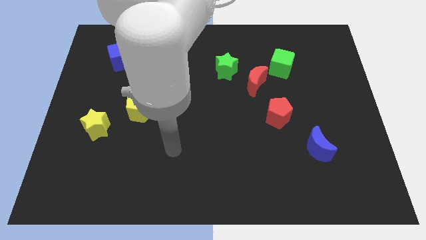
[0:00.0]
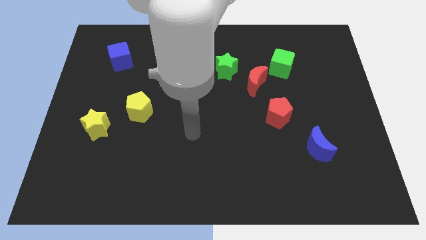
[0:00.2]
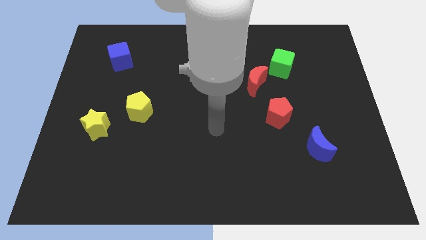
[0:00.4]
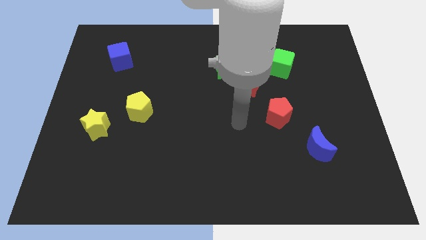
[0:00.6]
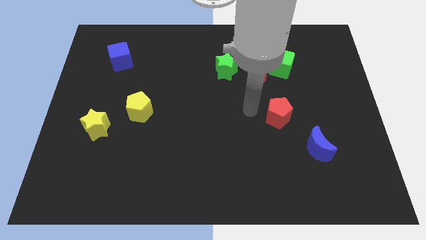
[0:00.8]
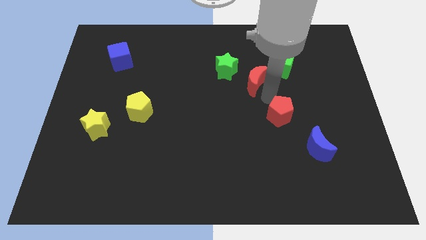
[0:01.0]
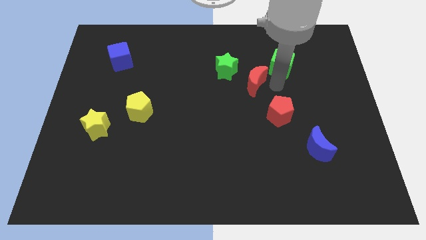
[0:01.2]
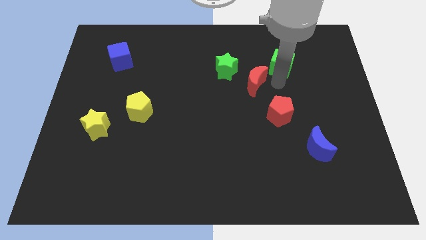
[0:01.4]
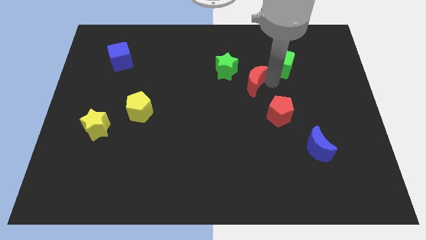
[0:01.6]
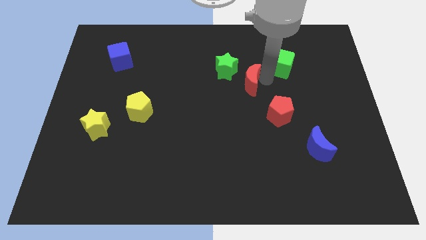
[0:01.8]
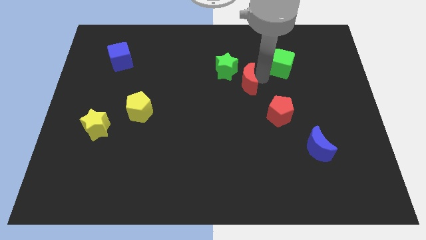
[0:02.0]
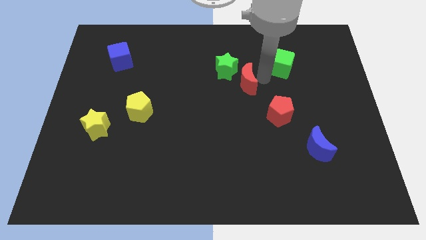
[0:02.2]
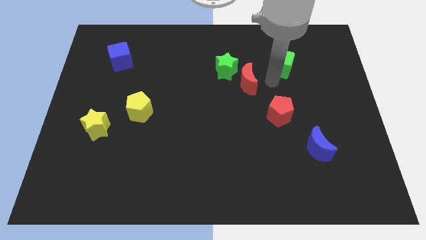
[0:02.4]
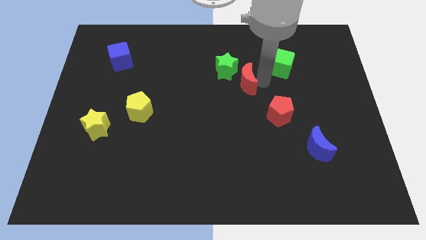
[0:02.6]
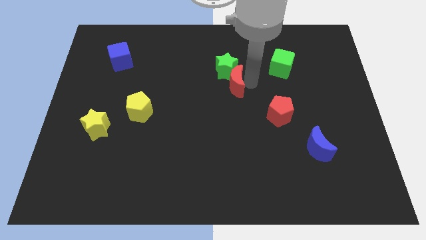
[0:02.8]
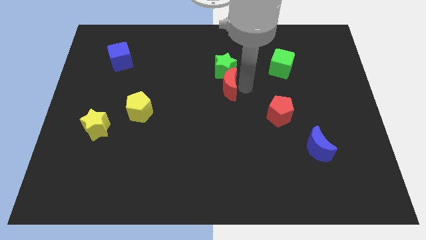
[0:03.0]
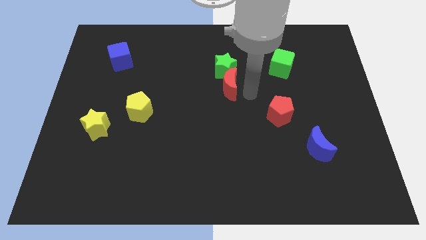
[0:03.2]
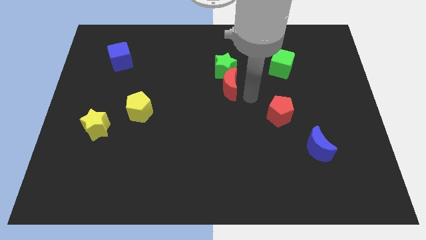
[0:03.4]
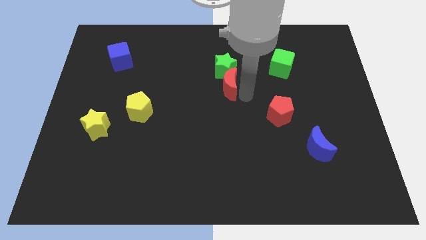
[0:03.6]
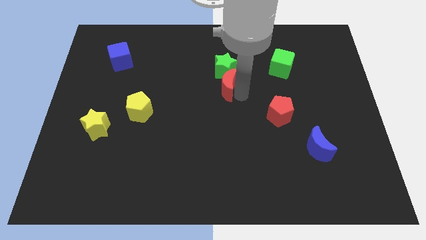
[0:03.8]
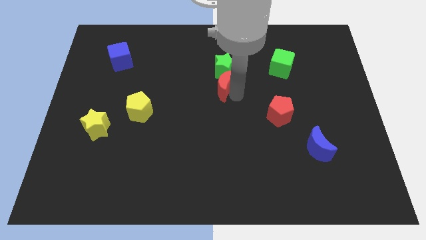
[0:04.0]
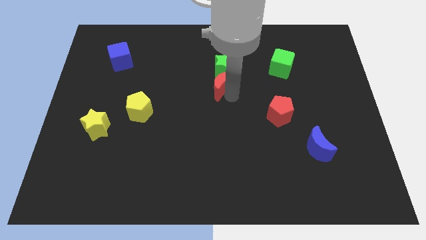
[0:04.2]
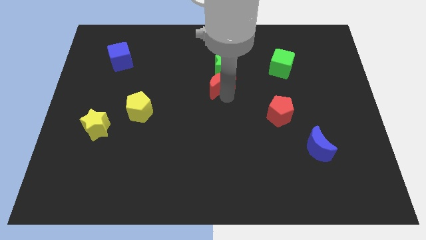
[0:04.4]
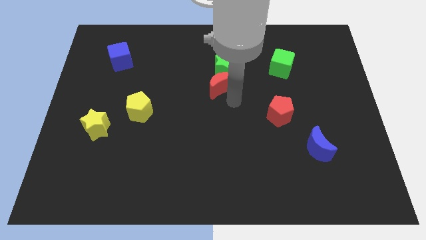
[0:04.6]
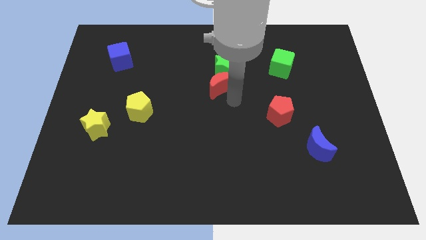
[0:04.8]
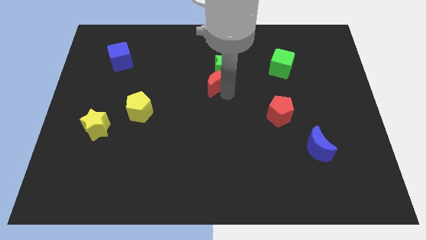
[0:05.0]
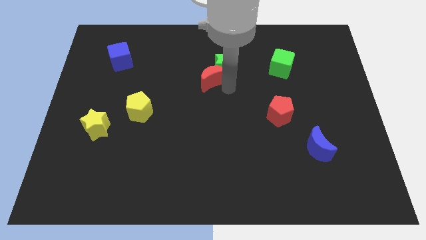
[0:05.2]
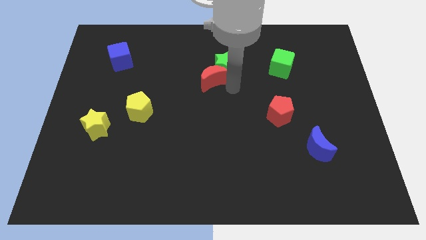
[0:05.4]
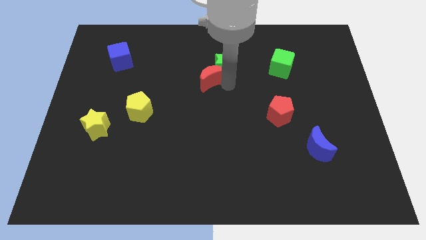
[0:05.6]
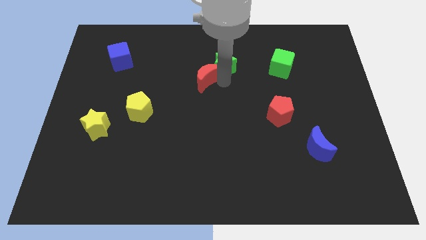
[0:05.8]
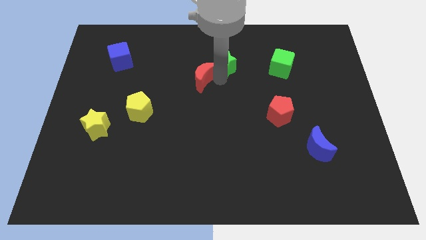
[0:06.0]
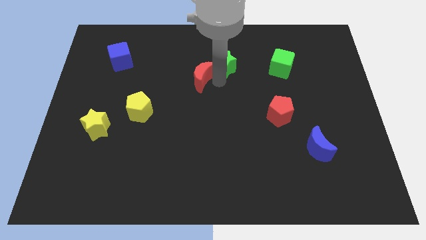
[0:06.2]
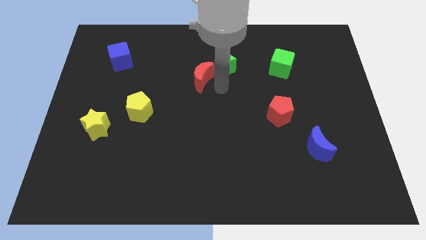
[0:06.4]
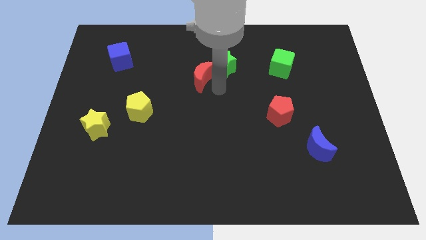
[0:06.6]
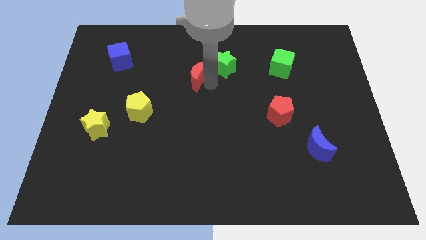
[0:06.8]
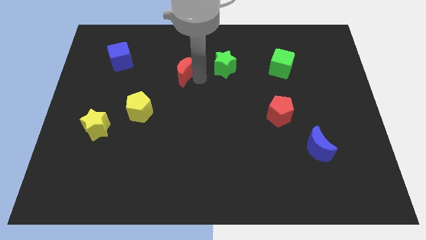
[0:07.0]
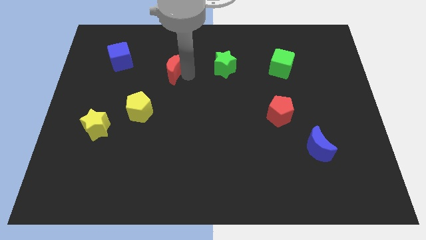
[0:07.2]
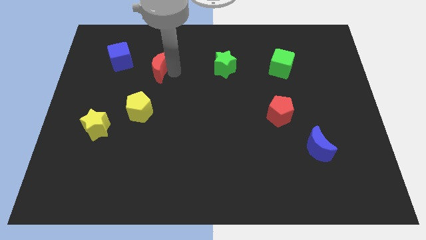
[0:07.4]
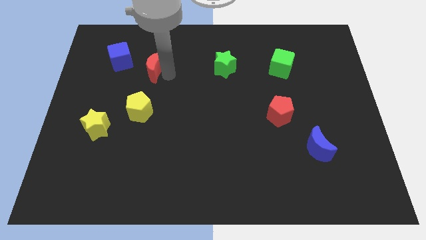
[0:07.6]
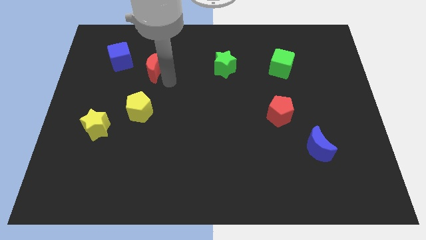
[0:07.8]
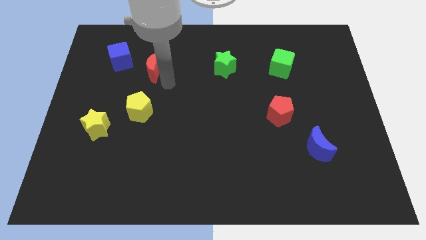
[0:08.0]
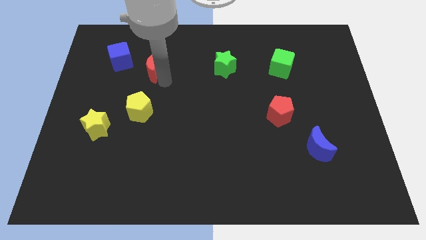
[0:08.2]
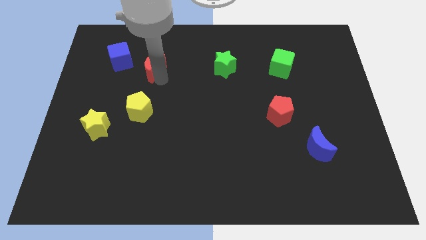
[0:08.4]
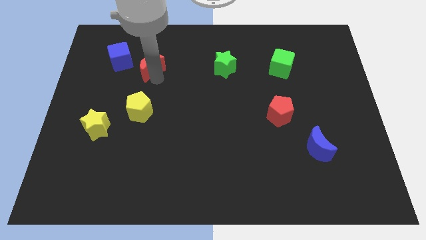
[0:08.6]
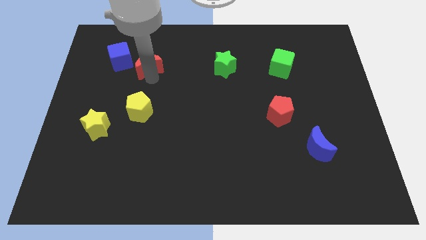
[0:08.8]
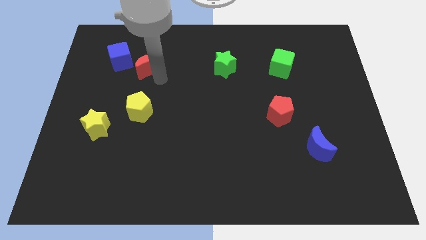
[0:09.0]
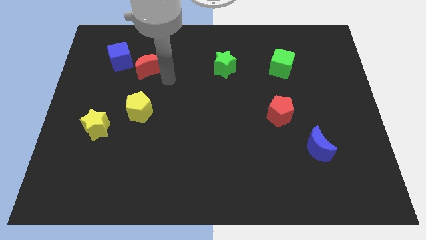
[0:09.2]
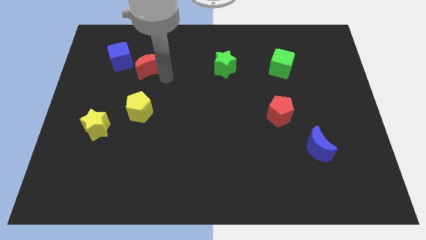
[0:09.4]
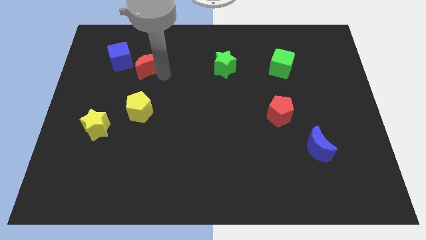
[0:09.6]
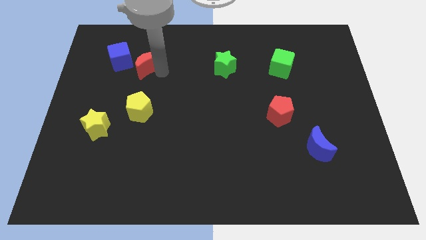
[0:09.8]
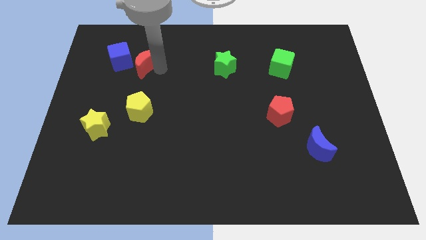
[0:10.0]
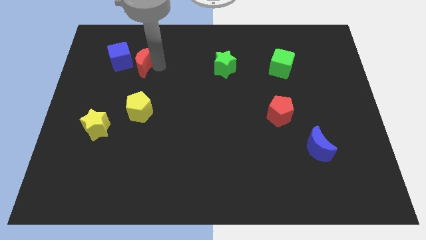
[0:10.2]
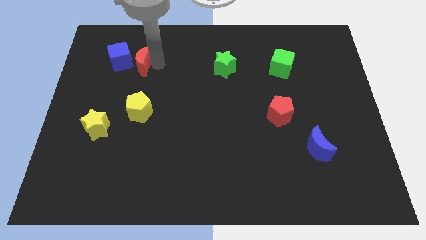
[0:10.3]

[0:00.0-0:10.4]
push the red moon to the blue cube

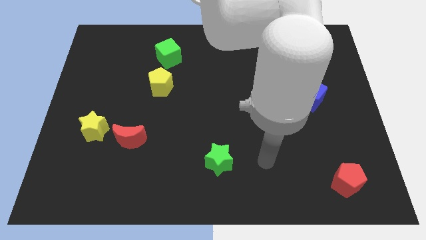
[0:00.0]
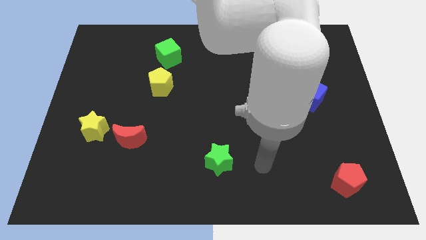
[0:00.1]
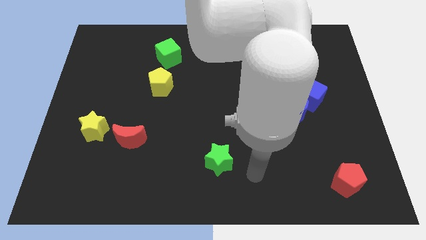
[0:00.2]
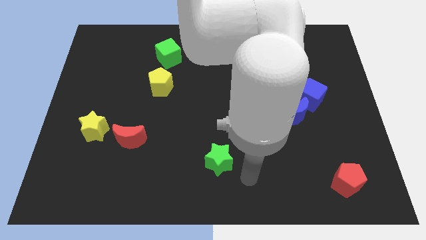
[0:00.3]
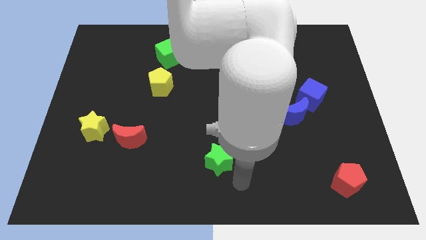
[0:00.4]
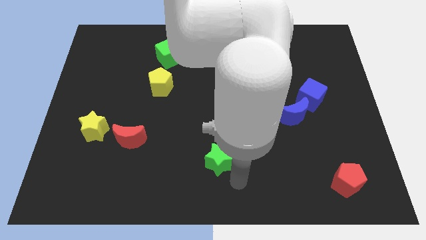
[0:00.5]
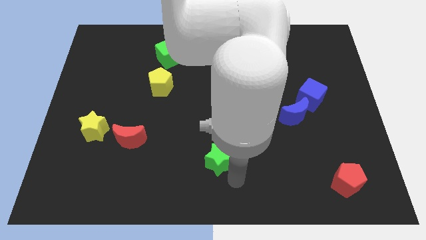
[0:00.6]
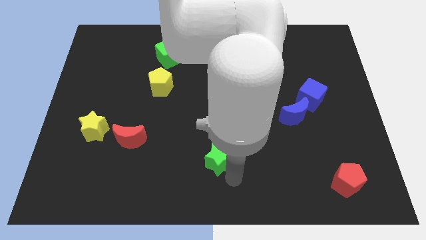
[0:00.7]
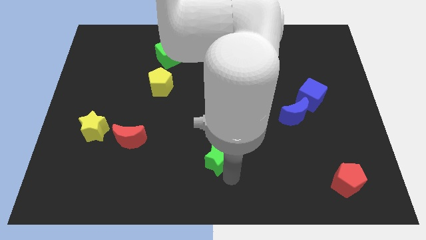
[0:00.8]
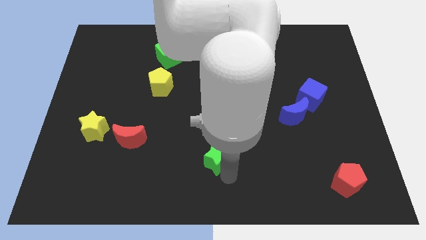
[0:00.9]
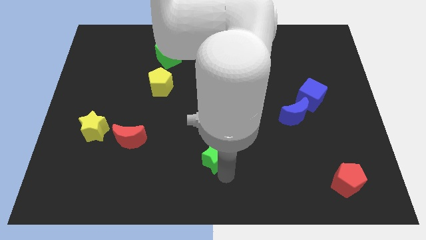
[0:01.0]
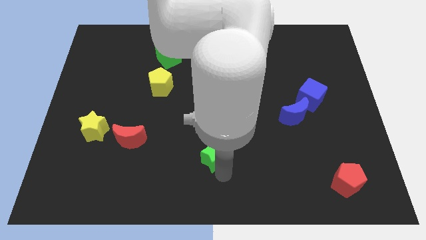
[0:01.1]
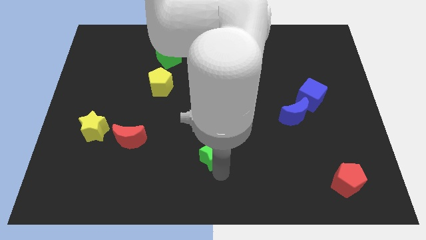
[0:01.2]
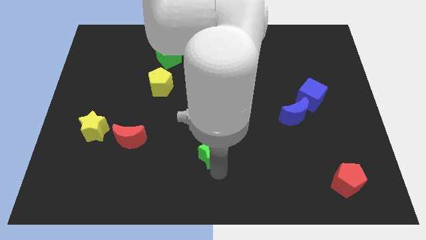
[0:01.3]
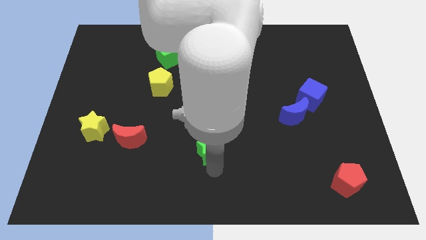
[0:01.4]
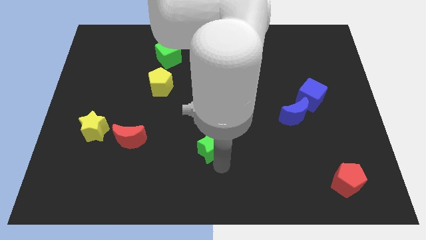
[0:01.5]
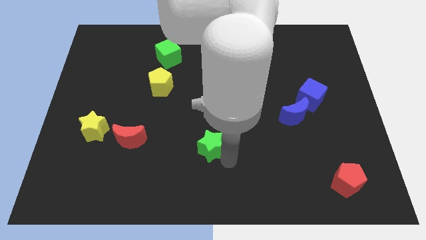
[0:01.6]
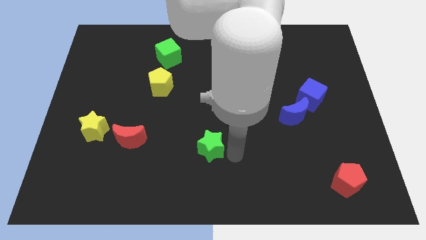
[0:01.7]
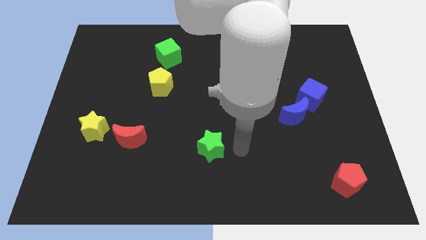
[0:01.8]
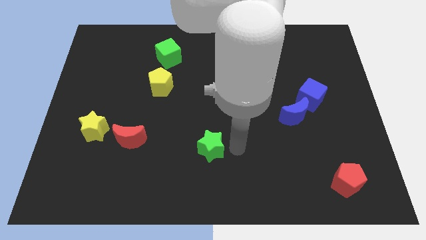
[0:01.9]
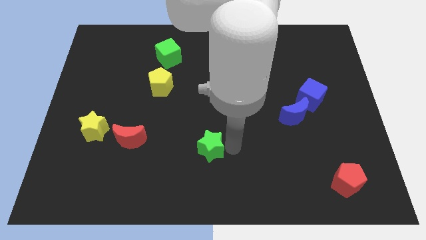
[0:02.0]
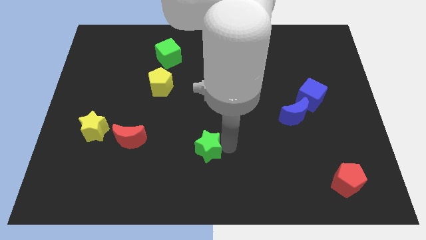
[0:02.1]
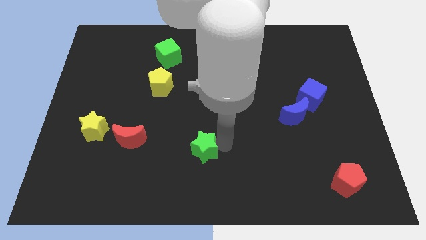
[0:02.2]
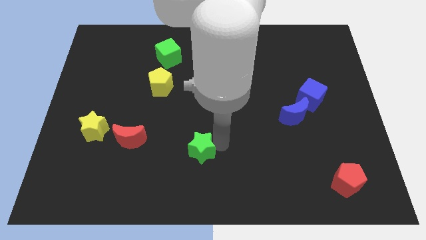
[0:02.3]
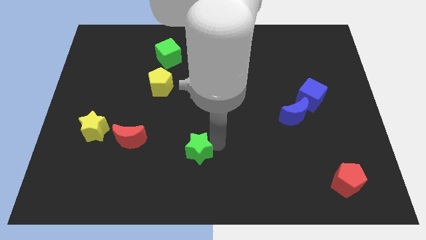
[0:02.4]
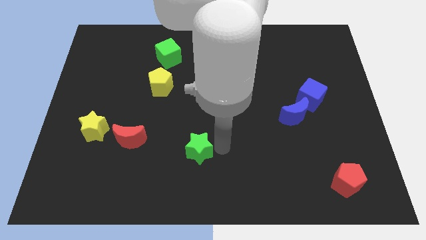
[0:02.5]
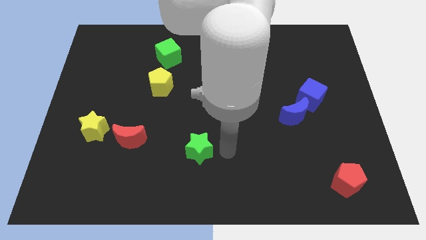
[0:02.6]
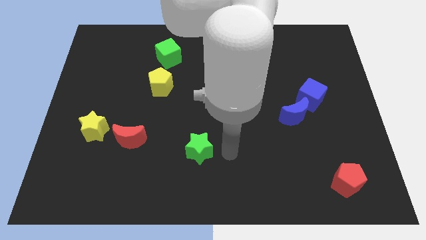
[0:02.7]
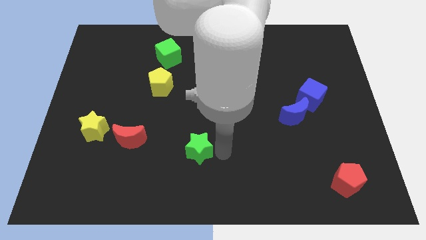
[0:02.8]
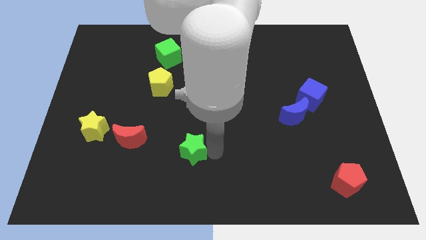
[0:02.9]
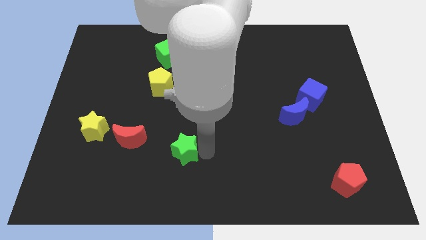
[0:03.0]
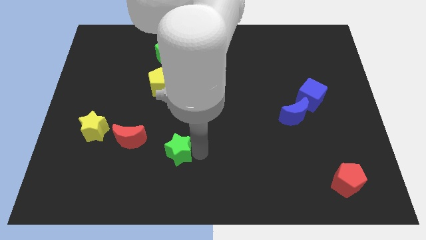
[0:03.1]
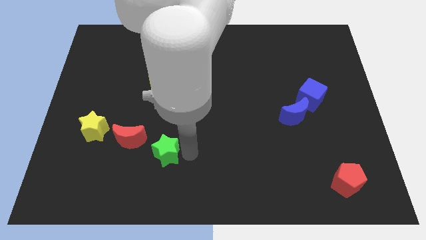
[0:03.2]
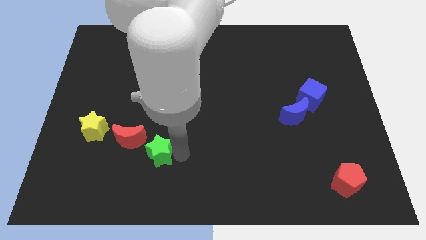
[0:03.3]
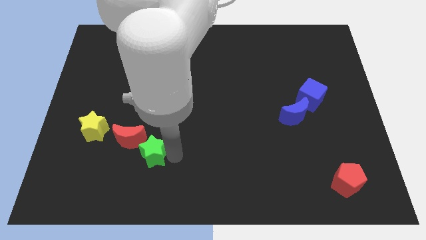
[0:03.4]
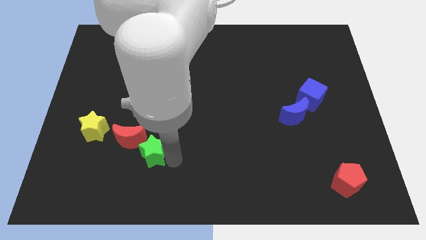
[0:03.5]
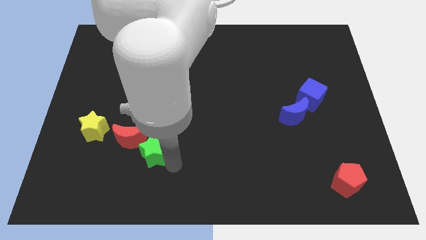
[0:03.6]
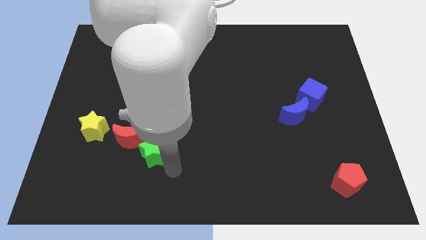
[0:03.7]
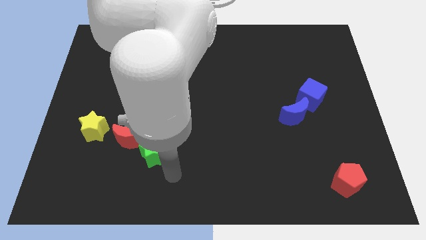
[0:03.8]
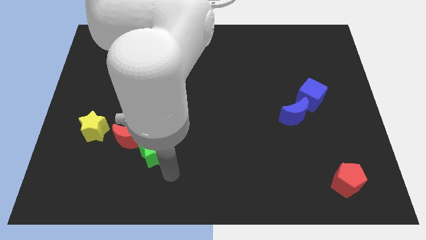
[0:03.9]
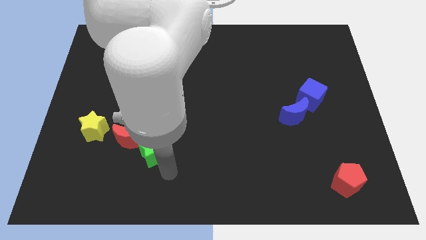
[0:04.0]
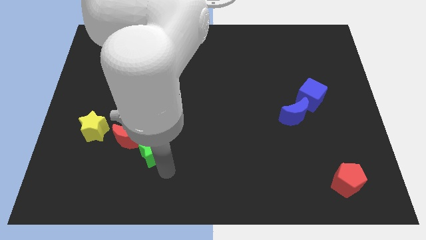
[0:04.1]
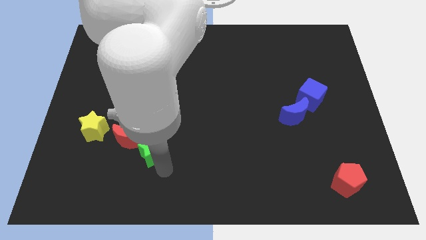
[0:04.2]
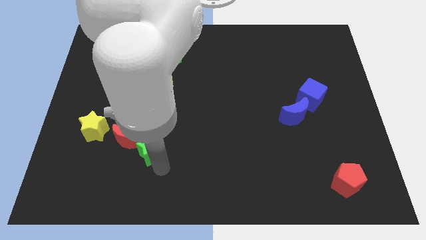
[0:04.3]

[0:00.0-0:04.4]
slide the green star towards the red moon
